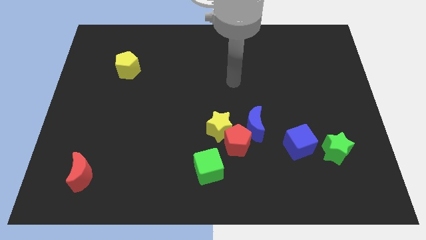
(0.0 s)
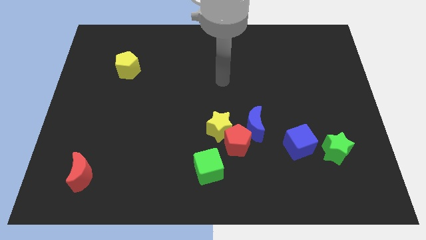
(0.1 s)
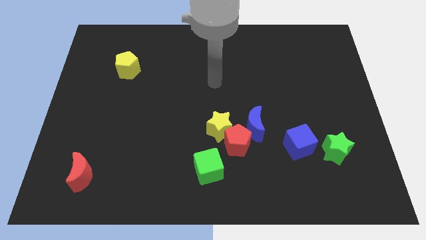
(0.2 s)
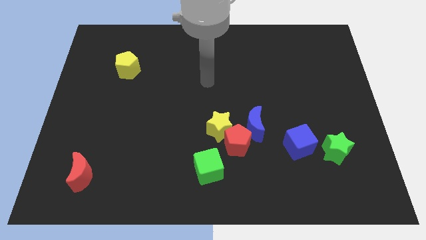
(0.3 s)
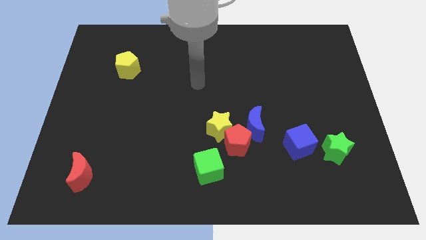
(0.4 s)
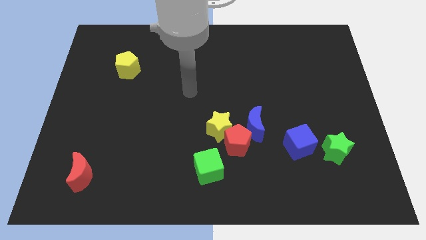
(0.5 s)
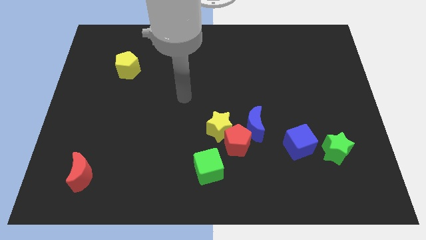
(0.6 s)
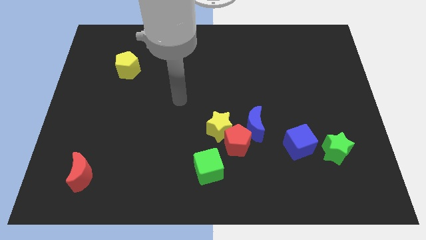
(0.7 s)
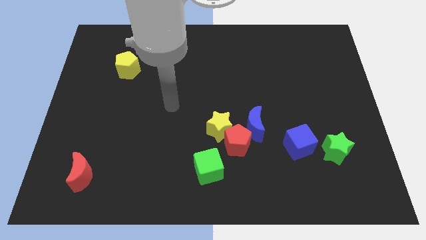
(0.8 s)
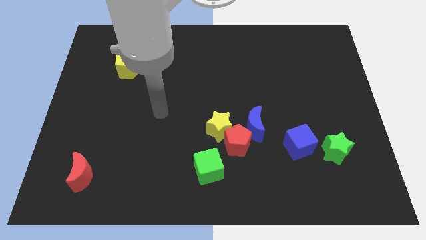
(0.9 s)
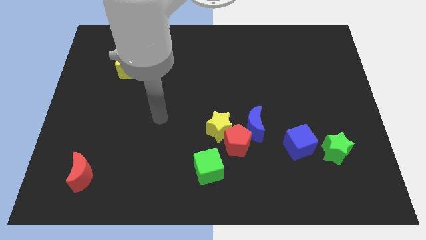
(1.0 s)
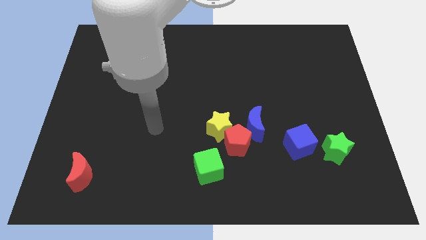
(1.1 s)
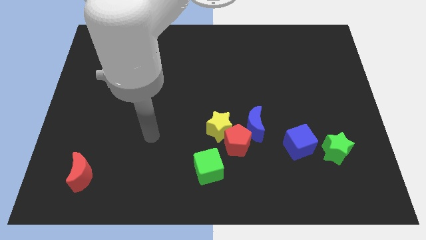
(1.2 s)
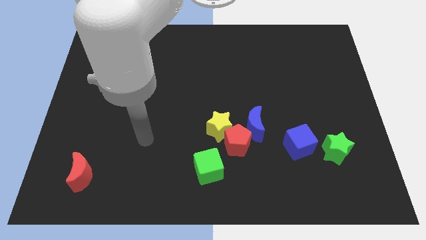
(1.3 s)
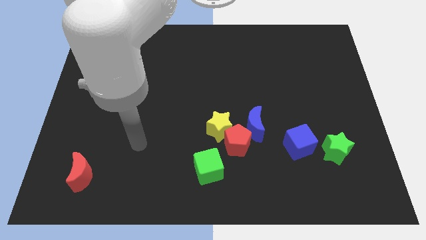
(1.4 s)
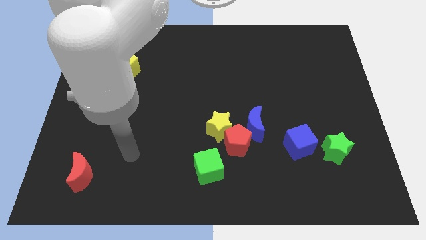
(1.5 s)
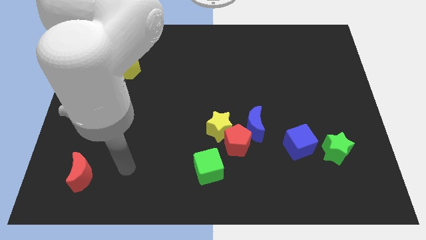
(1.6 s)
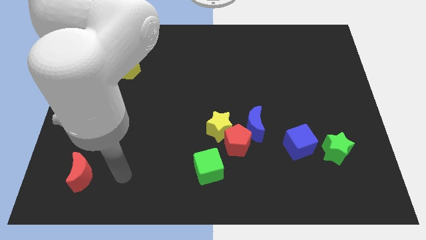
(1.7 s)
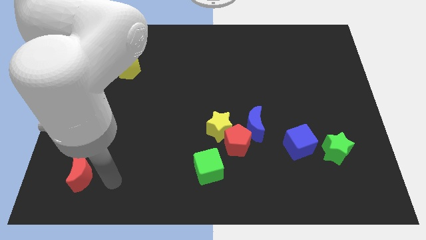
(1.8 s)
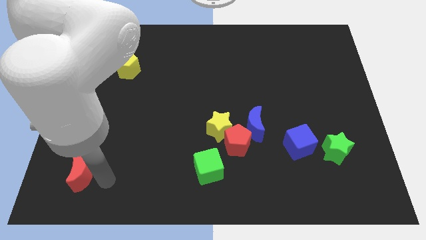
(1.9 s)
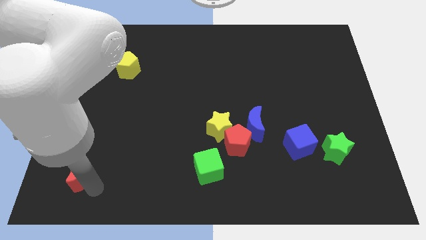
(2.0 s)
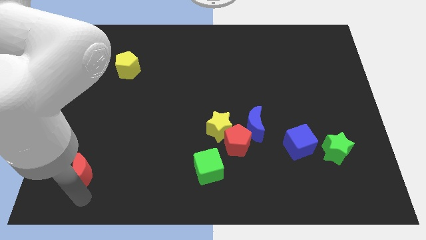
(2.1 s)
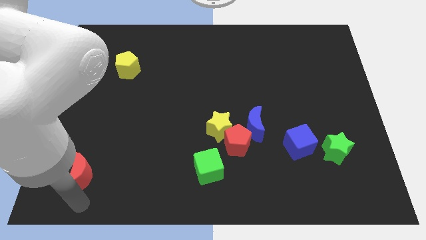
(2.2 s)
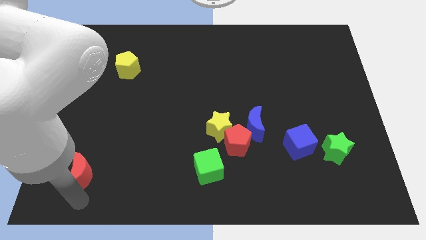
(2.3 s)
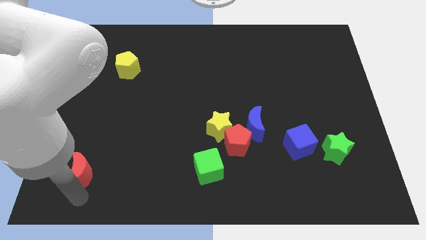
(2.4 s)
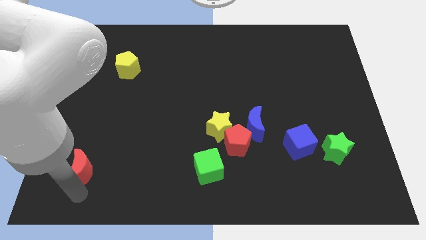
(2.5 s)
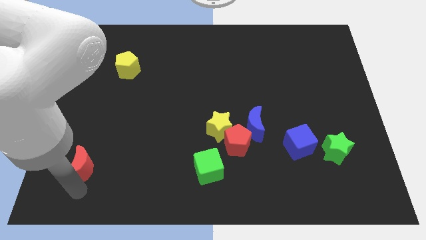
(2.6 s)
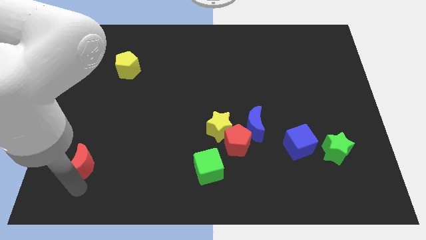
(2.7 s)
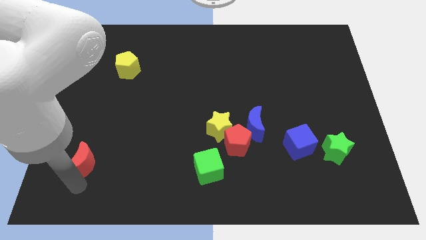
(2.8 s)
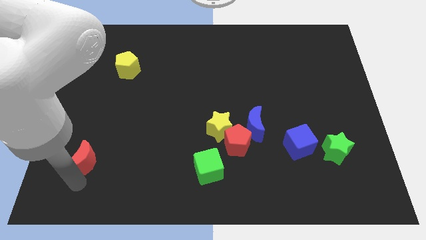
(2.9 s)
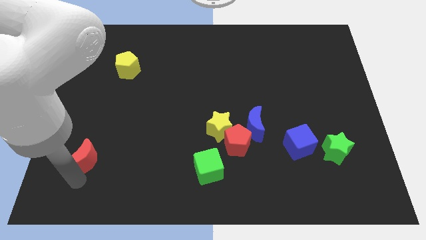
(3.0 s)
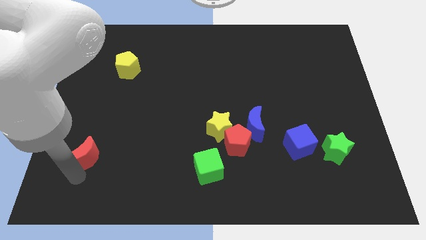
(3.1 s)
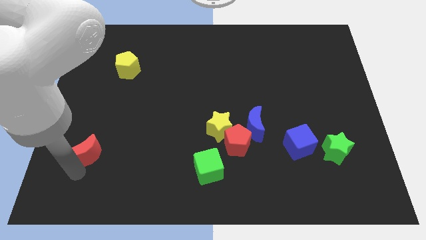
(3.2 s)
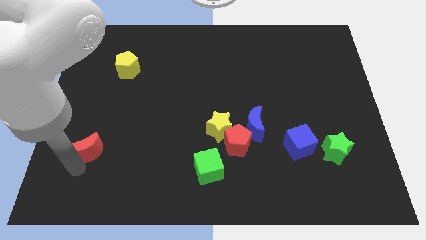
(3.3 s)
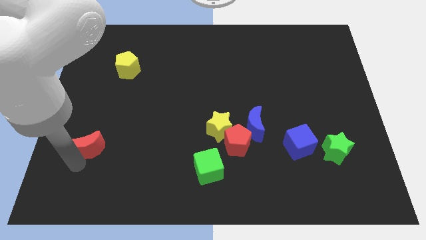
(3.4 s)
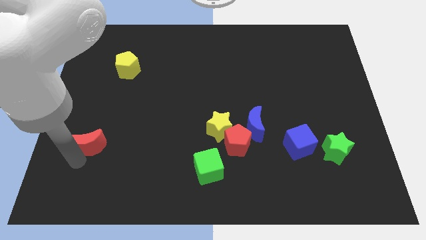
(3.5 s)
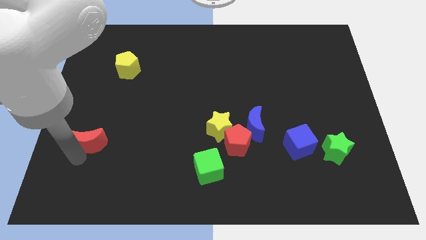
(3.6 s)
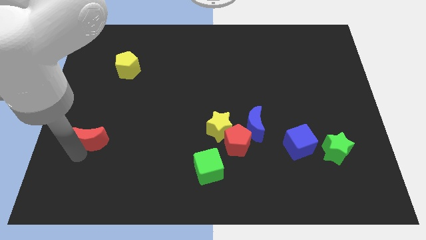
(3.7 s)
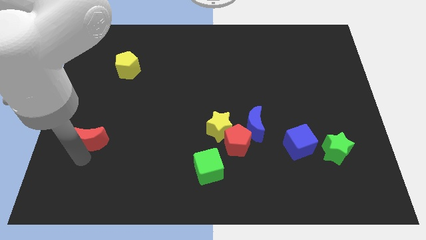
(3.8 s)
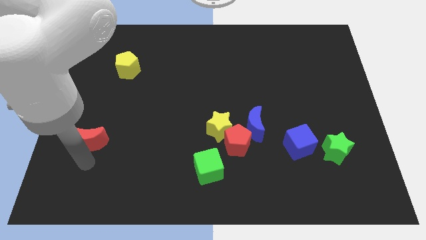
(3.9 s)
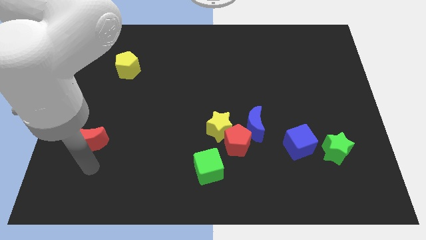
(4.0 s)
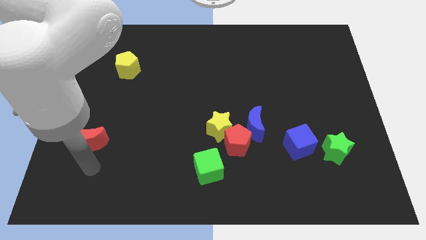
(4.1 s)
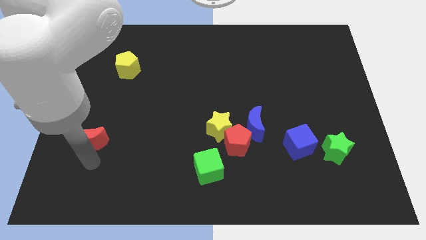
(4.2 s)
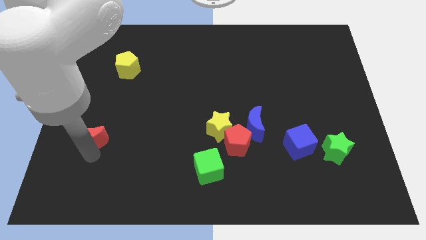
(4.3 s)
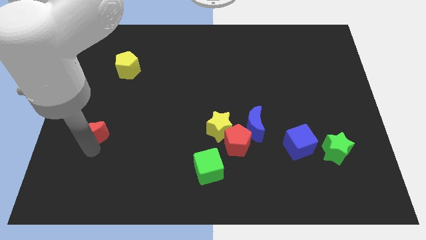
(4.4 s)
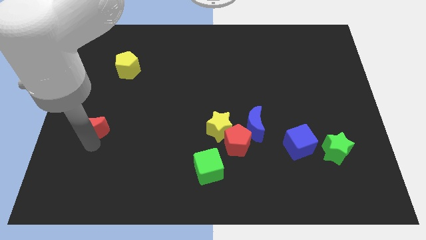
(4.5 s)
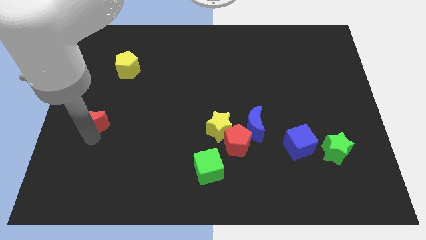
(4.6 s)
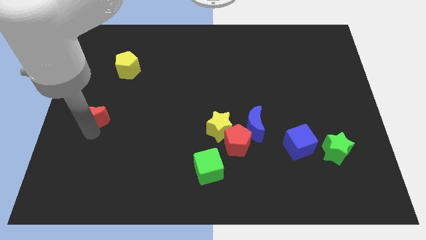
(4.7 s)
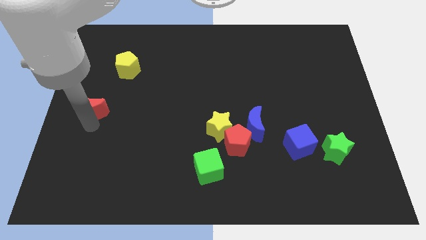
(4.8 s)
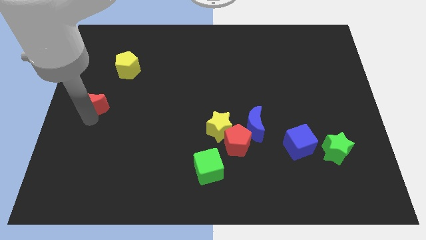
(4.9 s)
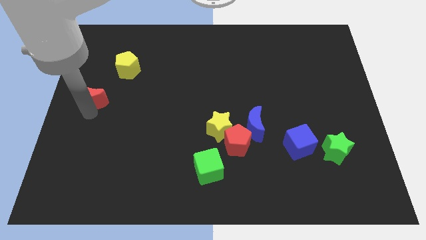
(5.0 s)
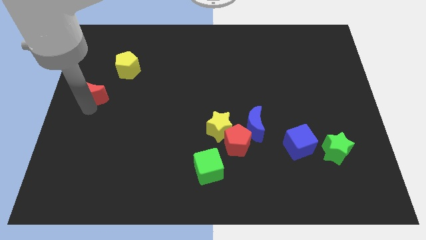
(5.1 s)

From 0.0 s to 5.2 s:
move the red moon upwards

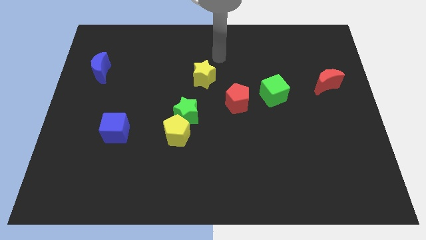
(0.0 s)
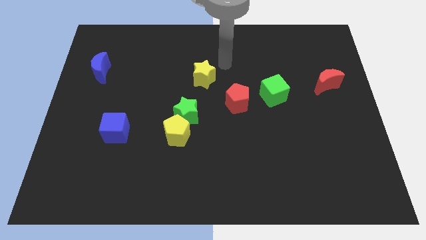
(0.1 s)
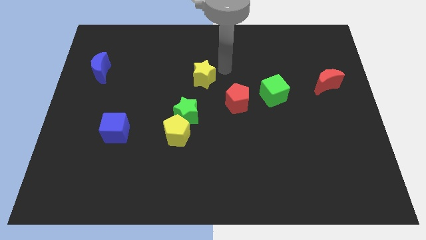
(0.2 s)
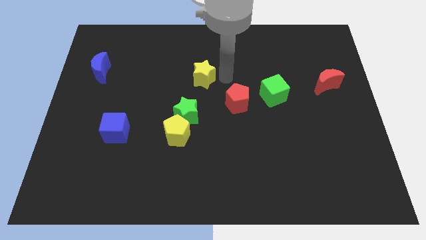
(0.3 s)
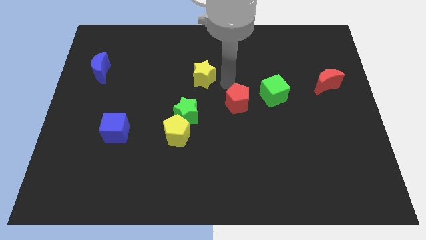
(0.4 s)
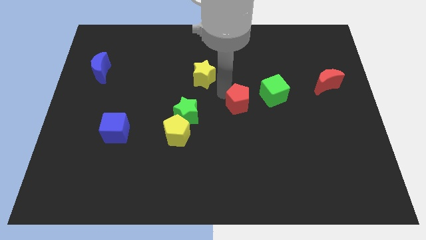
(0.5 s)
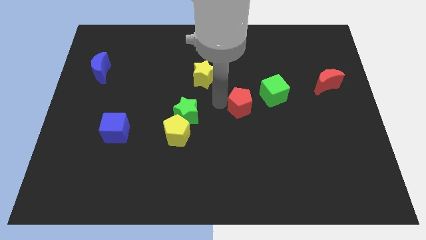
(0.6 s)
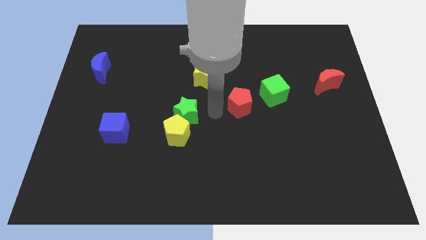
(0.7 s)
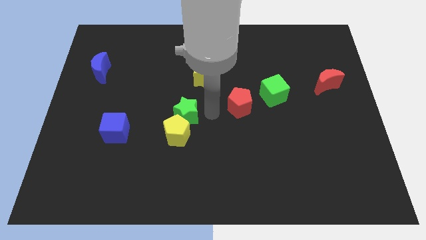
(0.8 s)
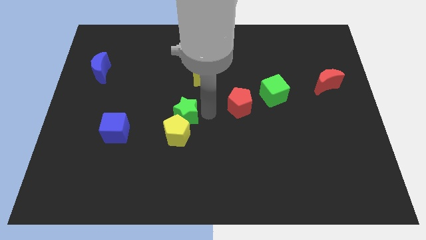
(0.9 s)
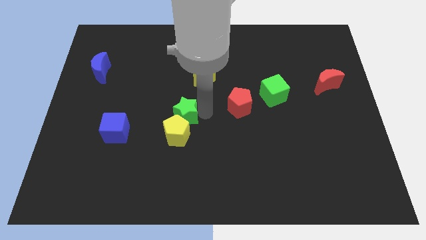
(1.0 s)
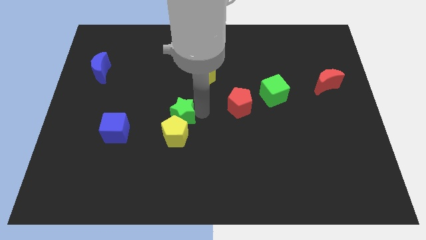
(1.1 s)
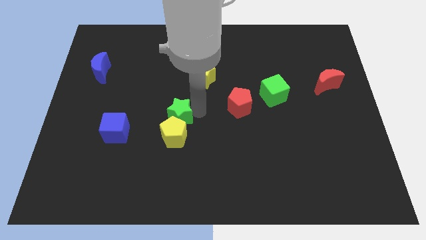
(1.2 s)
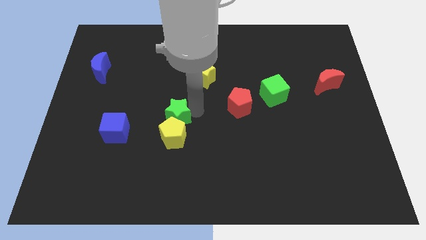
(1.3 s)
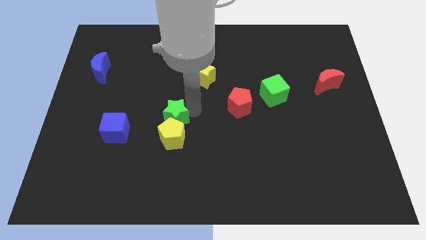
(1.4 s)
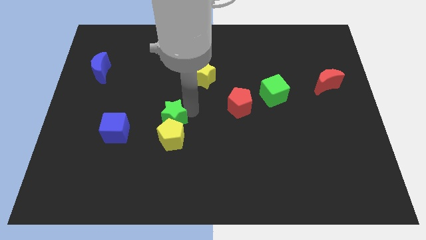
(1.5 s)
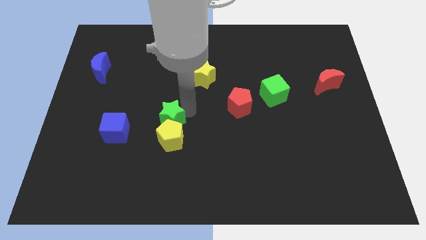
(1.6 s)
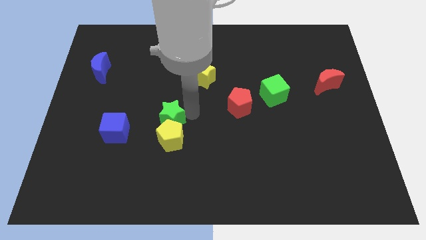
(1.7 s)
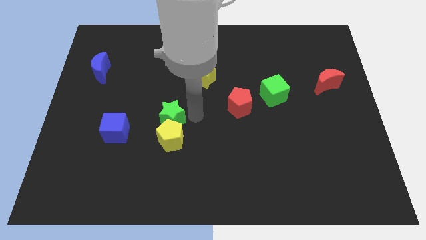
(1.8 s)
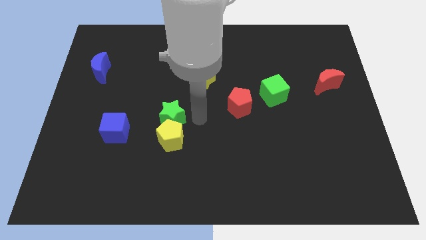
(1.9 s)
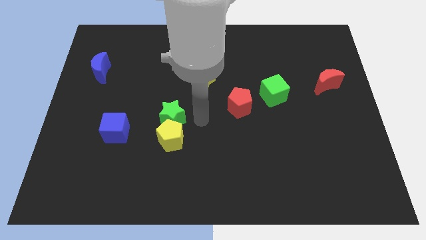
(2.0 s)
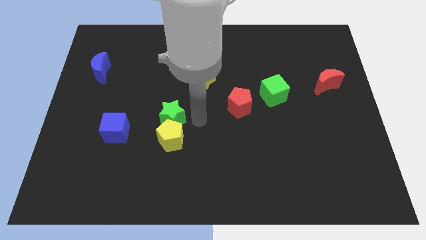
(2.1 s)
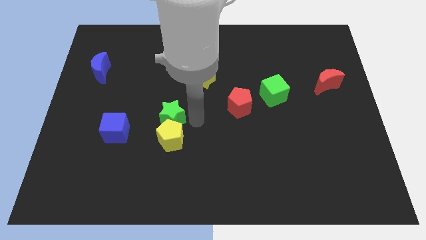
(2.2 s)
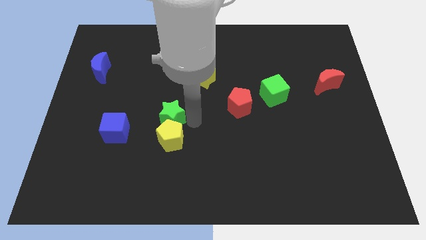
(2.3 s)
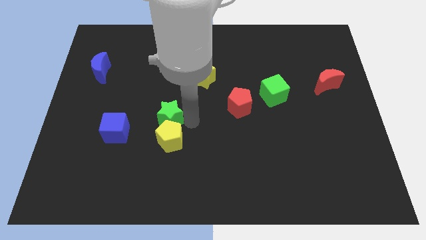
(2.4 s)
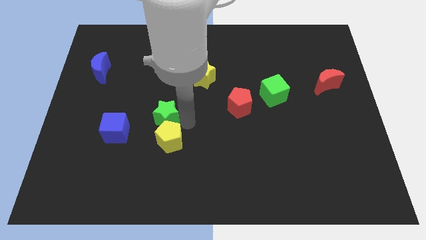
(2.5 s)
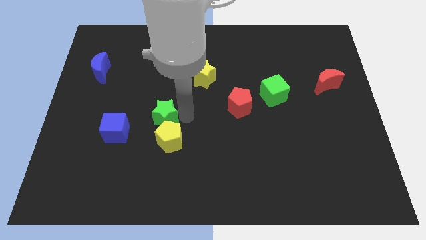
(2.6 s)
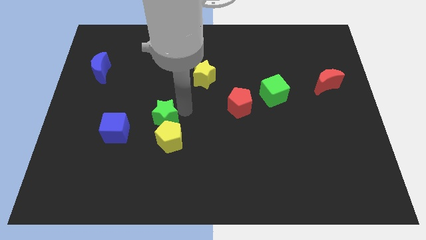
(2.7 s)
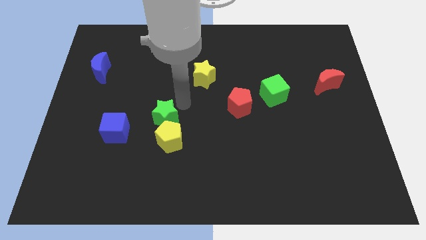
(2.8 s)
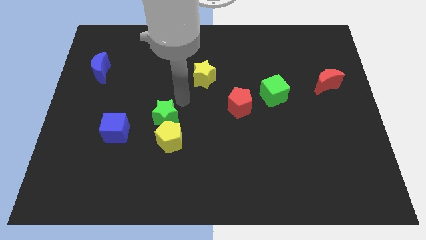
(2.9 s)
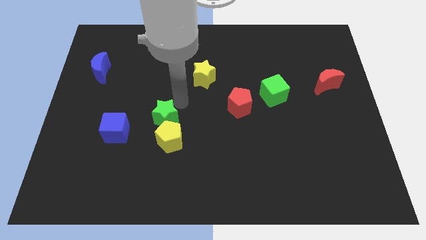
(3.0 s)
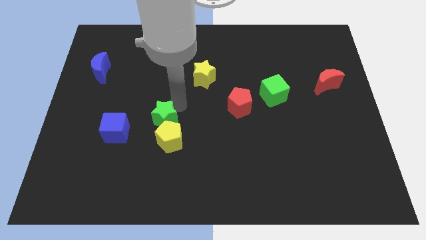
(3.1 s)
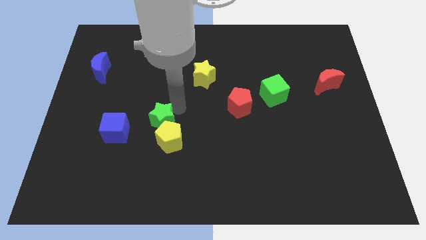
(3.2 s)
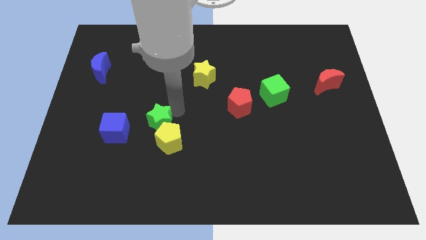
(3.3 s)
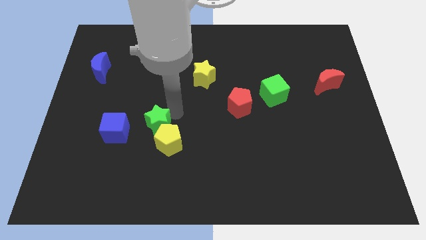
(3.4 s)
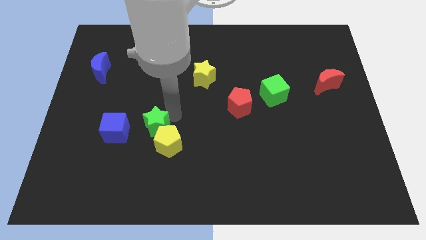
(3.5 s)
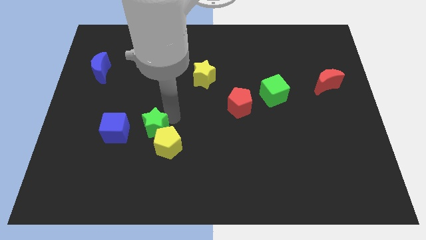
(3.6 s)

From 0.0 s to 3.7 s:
push the green star diagonally down and to the left a bit
